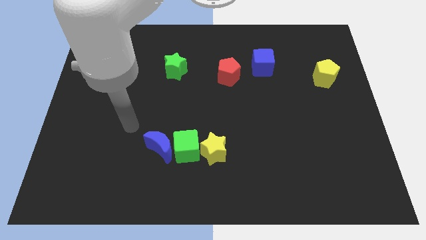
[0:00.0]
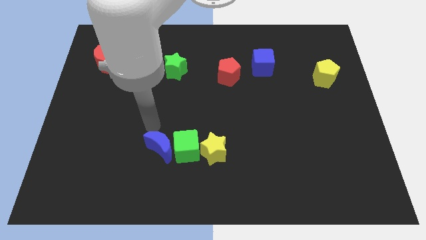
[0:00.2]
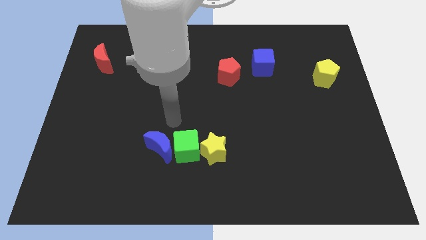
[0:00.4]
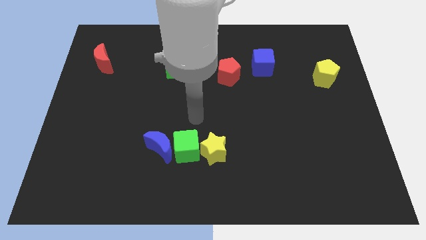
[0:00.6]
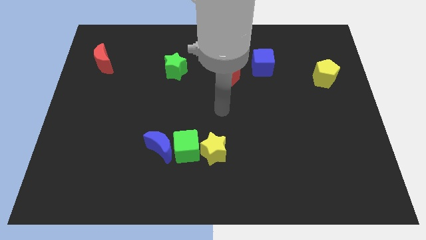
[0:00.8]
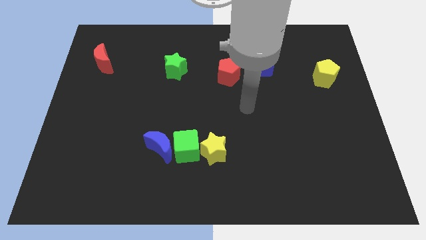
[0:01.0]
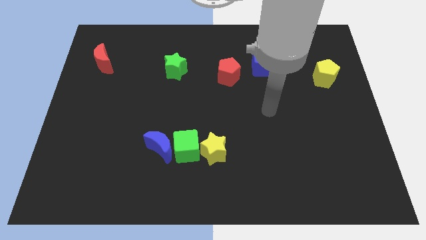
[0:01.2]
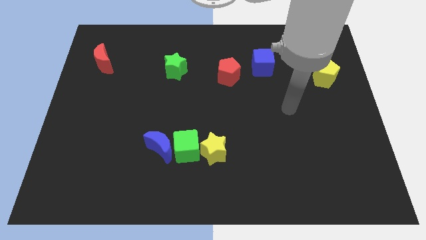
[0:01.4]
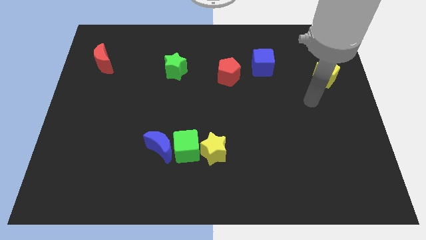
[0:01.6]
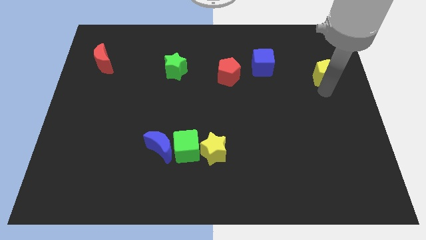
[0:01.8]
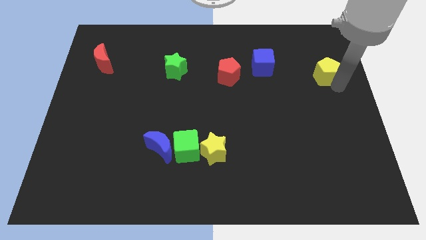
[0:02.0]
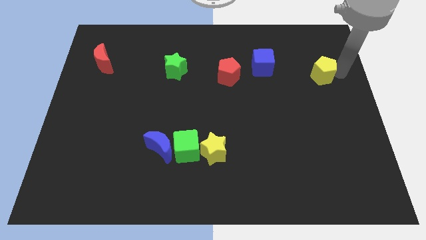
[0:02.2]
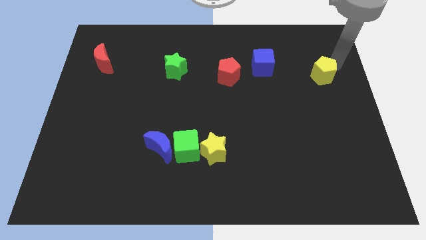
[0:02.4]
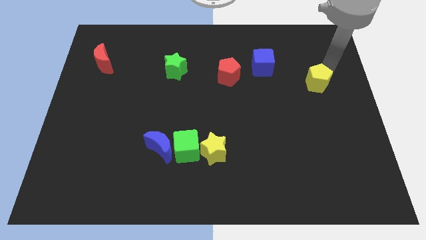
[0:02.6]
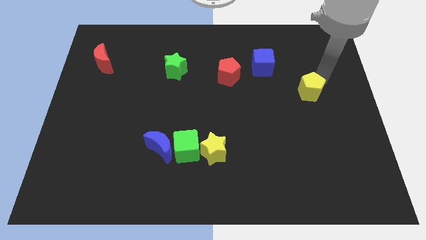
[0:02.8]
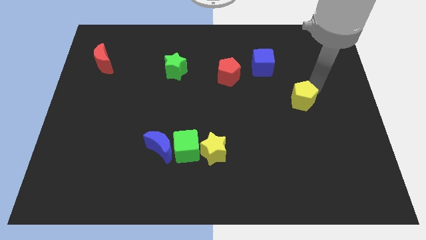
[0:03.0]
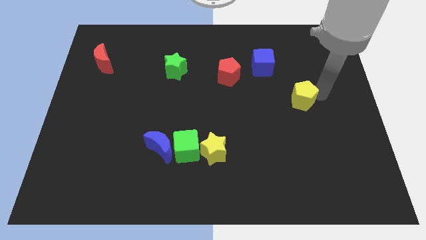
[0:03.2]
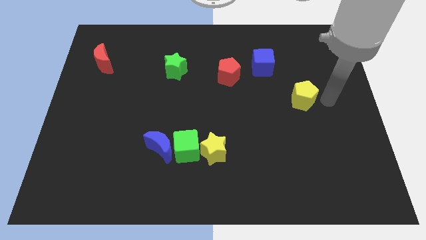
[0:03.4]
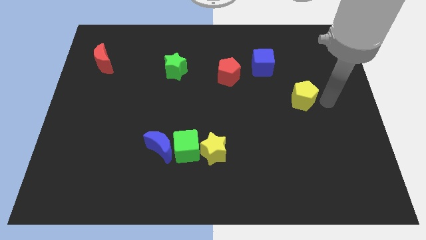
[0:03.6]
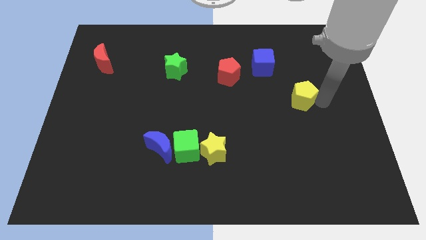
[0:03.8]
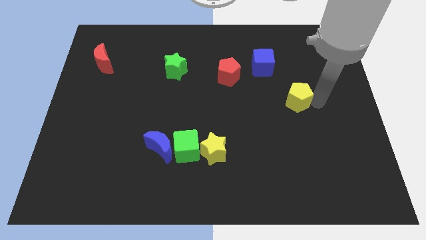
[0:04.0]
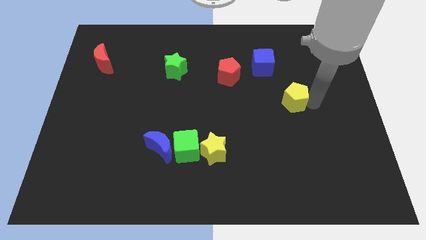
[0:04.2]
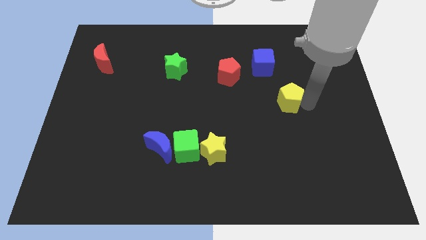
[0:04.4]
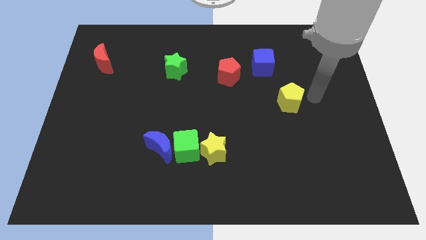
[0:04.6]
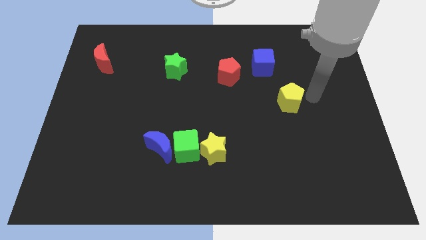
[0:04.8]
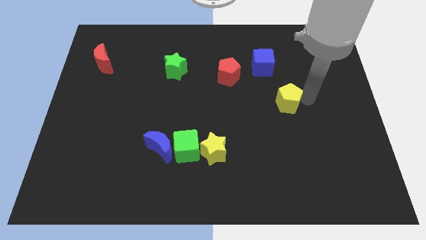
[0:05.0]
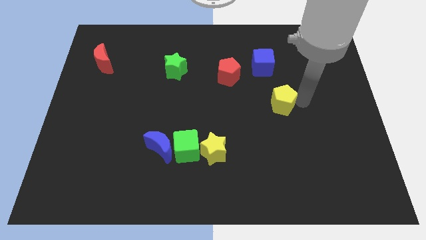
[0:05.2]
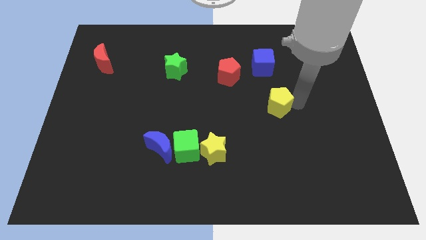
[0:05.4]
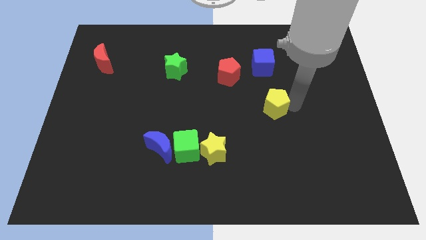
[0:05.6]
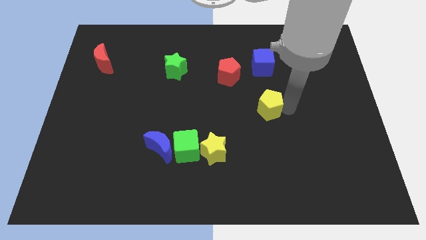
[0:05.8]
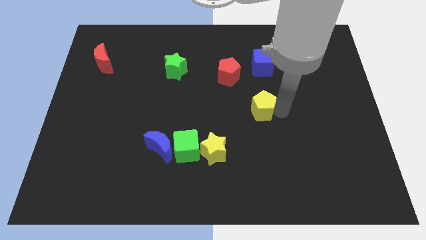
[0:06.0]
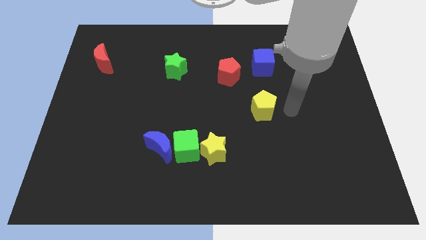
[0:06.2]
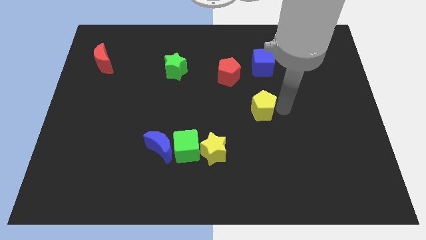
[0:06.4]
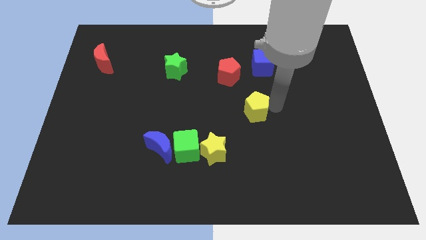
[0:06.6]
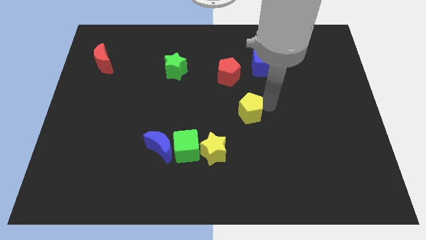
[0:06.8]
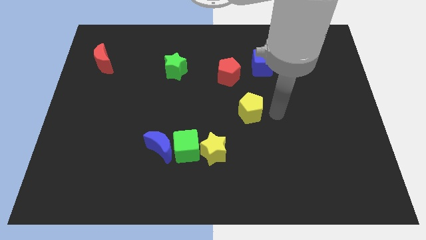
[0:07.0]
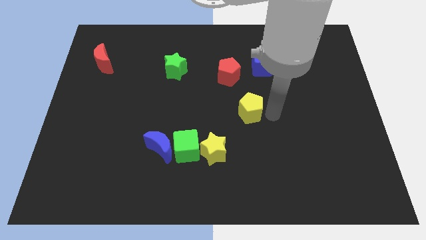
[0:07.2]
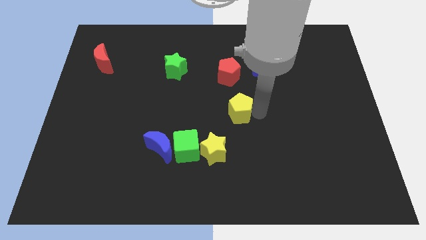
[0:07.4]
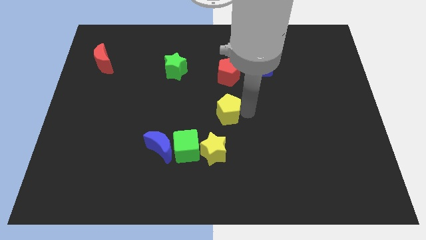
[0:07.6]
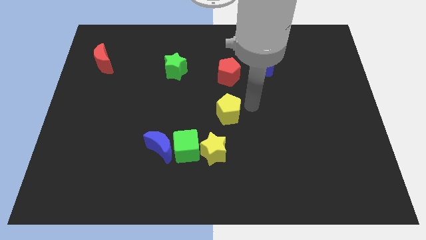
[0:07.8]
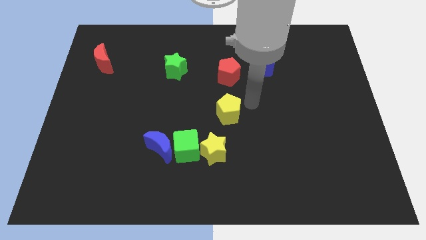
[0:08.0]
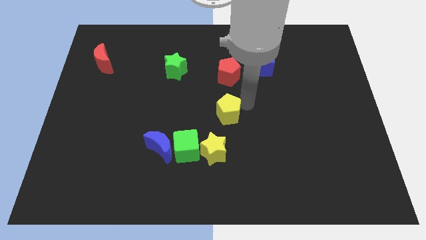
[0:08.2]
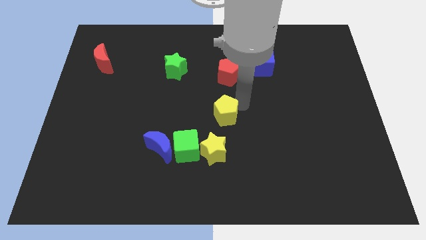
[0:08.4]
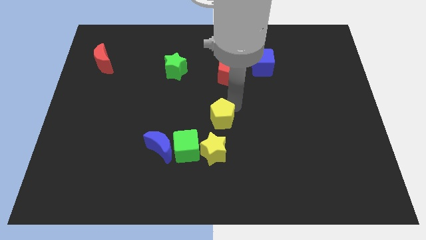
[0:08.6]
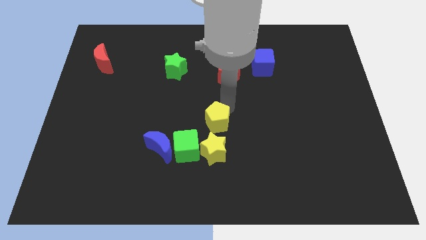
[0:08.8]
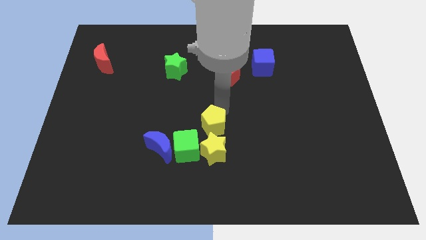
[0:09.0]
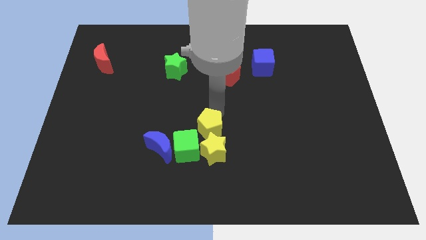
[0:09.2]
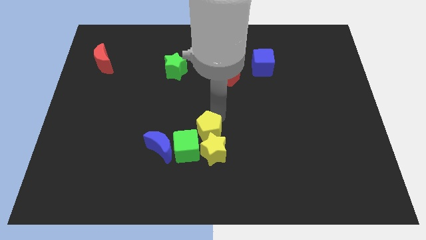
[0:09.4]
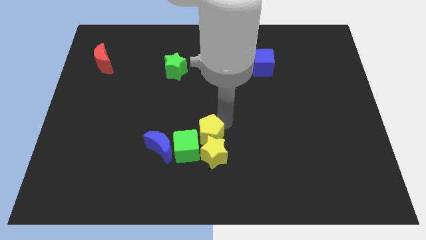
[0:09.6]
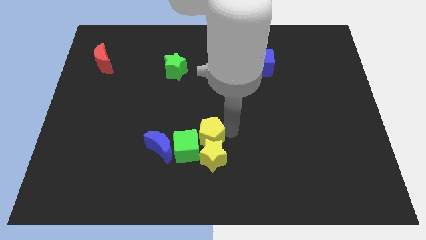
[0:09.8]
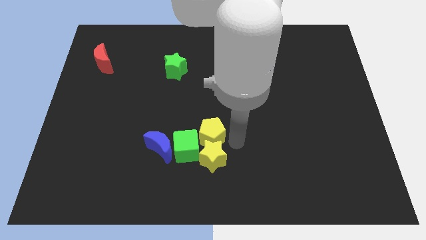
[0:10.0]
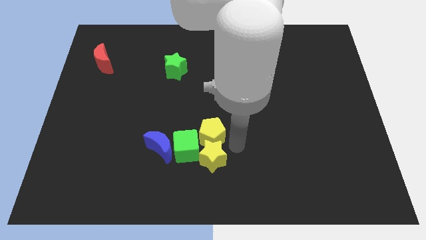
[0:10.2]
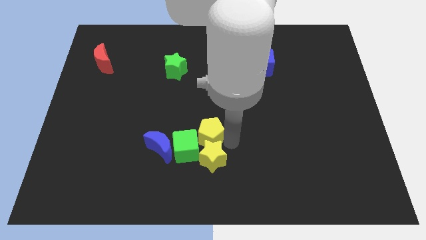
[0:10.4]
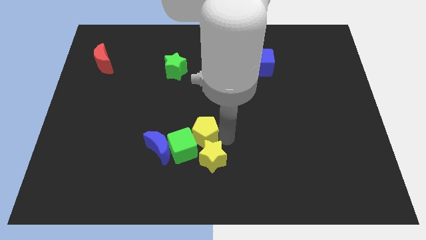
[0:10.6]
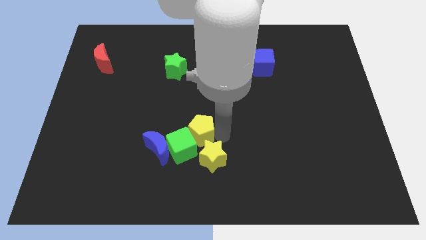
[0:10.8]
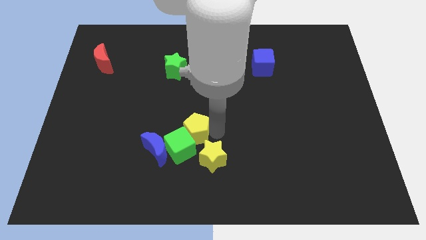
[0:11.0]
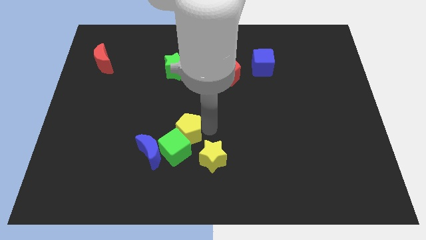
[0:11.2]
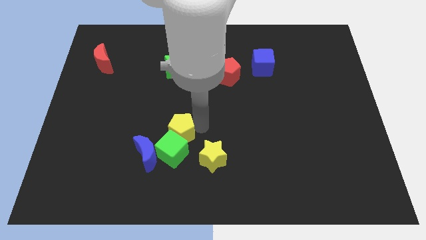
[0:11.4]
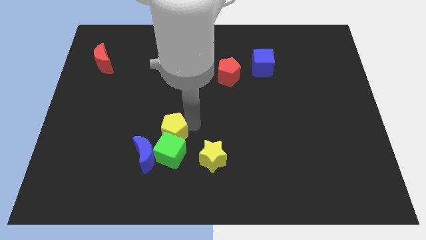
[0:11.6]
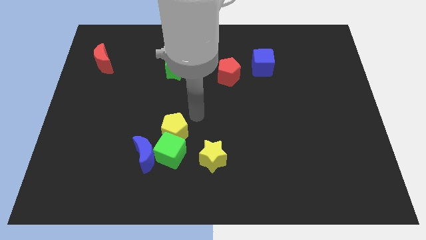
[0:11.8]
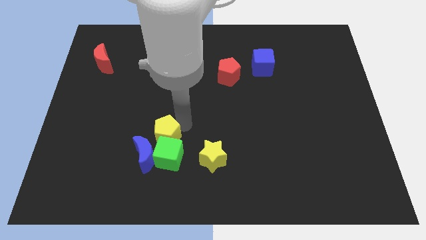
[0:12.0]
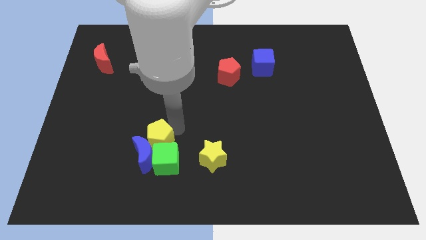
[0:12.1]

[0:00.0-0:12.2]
move the yellow pentagon next to the blue moon

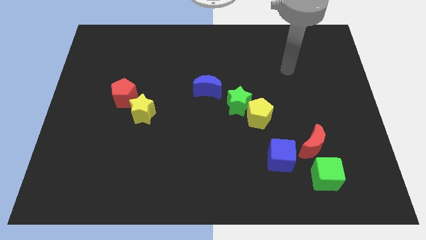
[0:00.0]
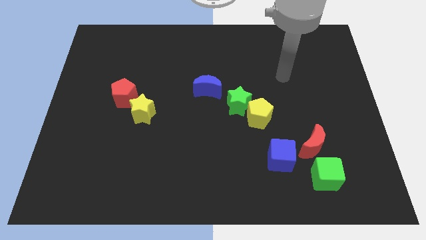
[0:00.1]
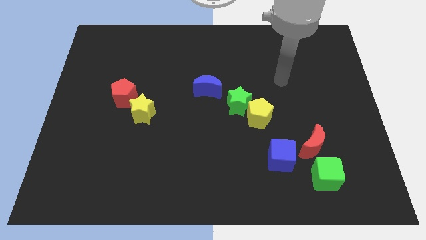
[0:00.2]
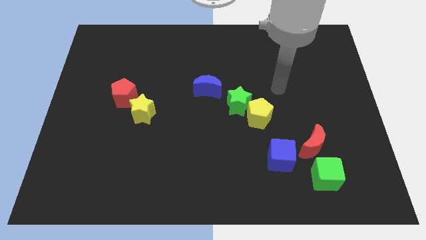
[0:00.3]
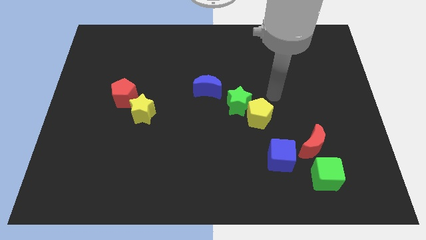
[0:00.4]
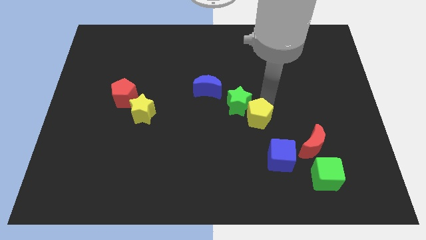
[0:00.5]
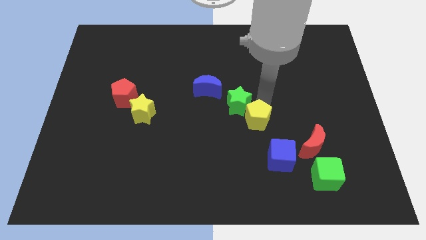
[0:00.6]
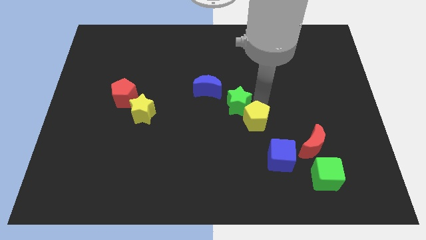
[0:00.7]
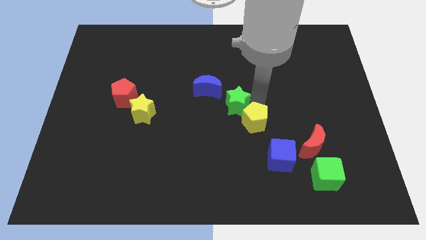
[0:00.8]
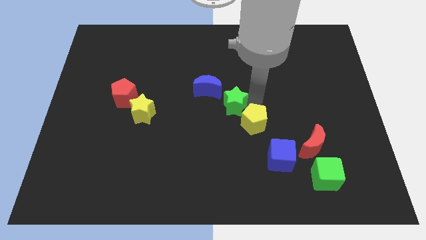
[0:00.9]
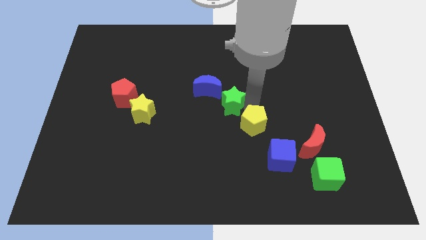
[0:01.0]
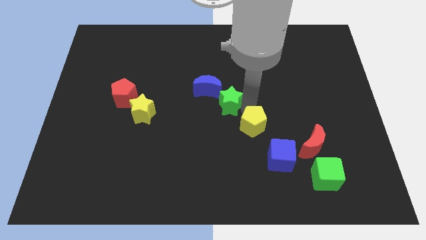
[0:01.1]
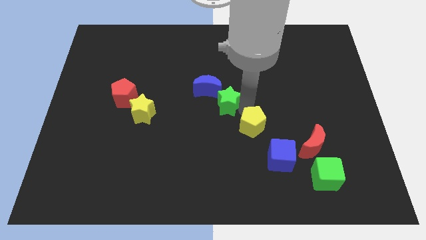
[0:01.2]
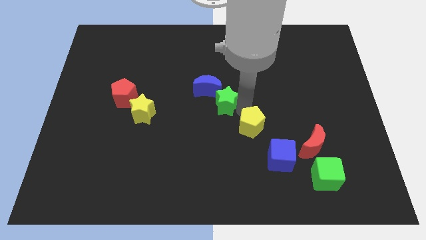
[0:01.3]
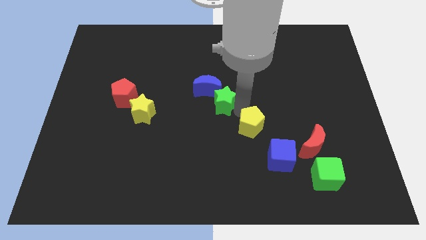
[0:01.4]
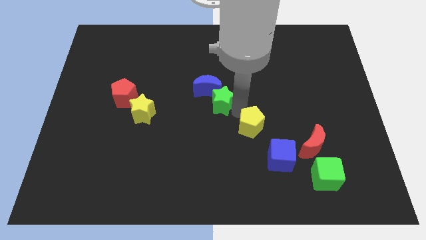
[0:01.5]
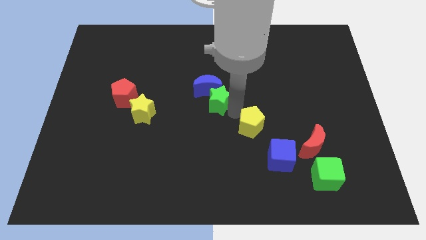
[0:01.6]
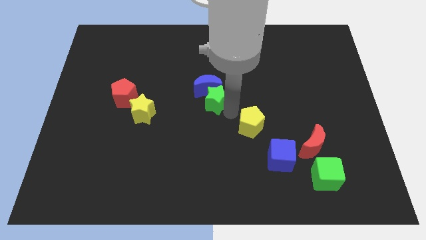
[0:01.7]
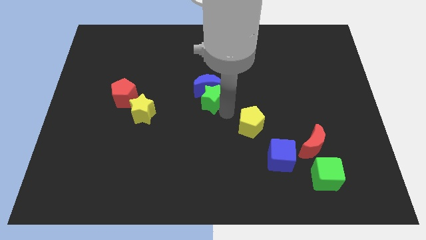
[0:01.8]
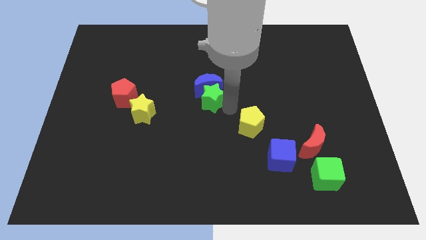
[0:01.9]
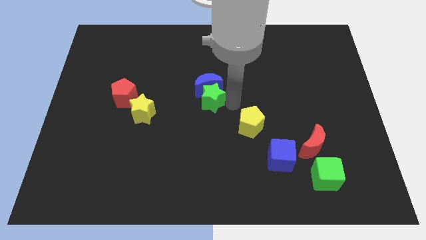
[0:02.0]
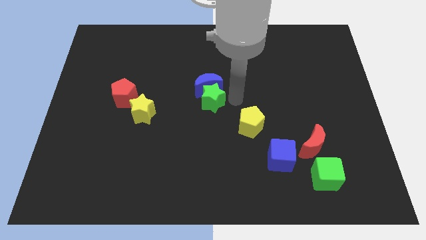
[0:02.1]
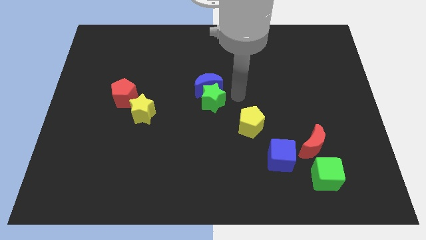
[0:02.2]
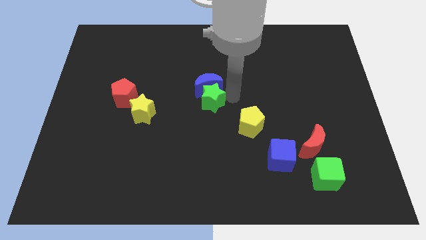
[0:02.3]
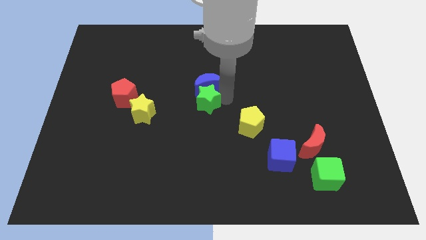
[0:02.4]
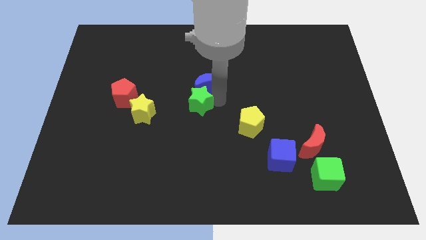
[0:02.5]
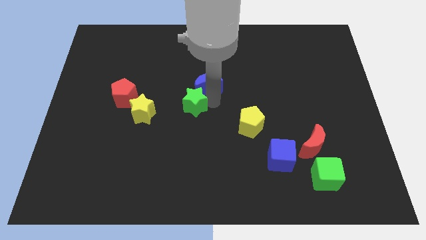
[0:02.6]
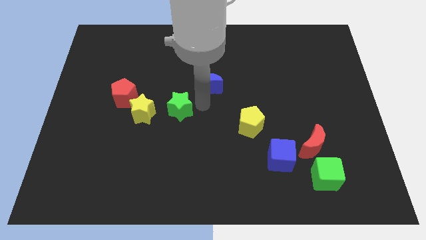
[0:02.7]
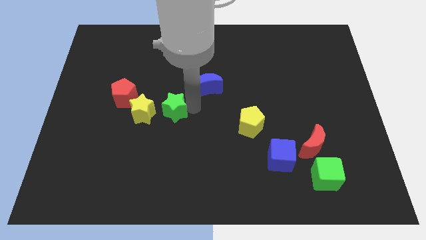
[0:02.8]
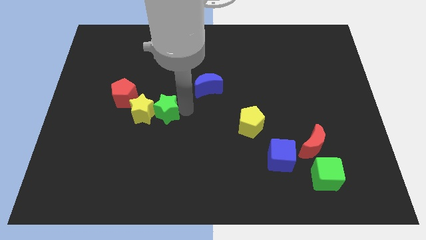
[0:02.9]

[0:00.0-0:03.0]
push the green star to the yellow star
